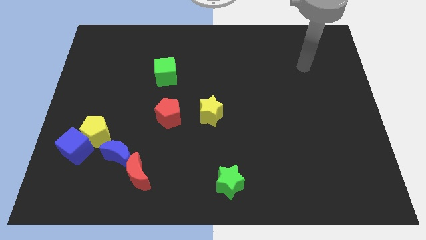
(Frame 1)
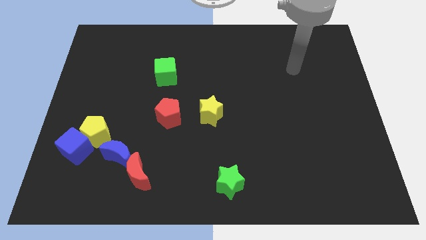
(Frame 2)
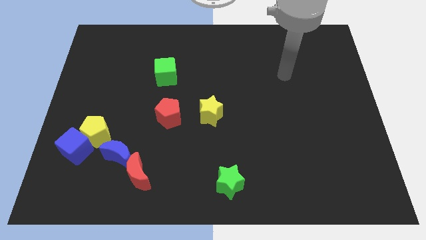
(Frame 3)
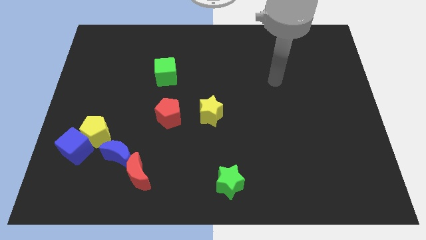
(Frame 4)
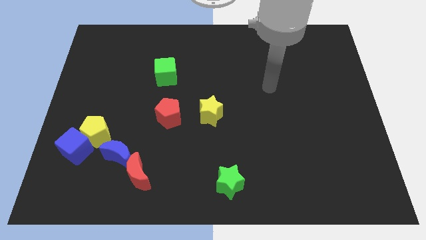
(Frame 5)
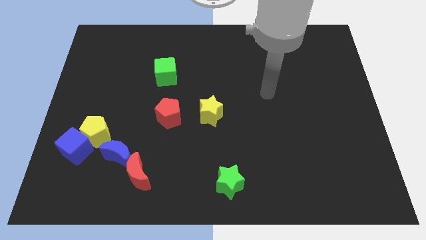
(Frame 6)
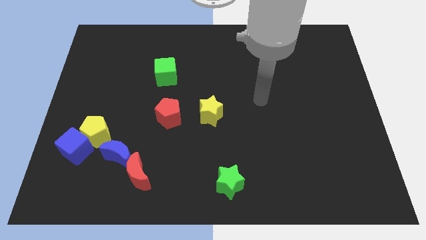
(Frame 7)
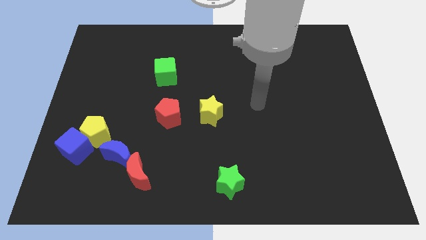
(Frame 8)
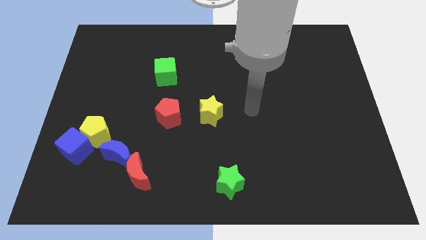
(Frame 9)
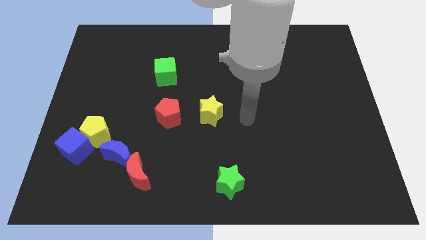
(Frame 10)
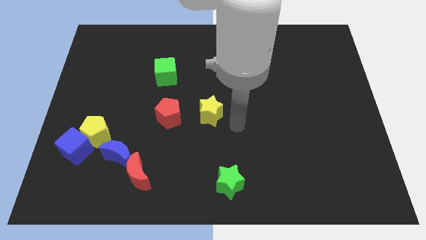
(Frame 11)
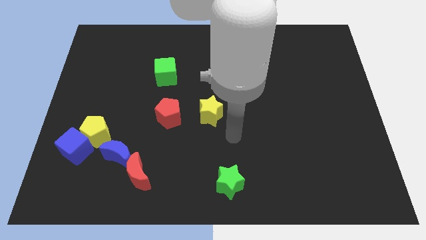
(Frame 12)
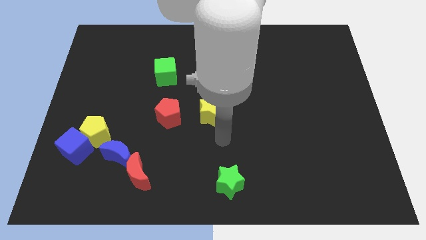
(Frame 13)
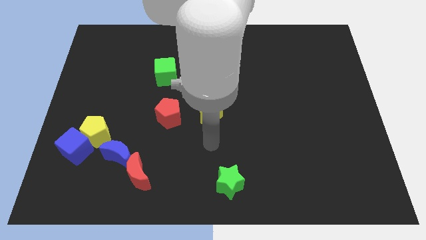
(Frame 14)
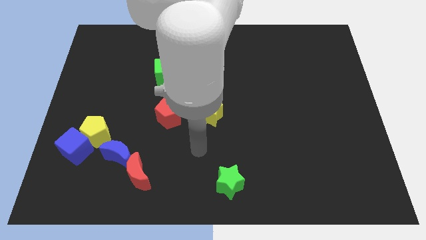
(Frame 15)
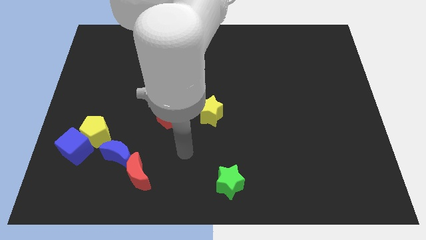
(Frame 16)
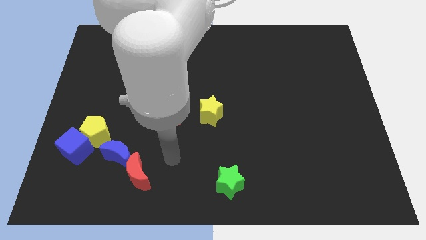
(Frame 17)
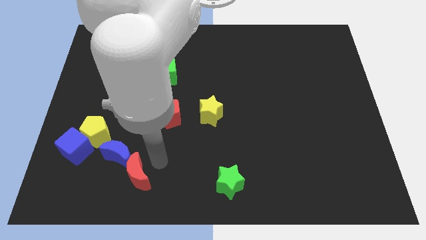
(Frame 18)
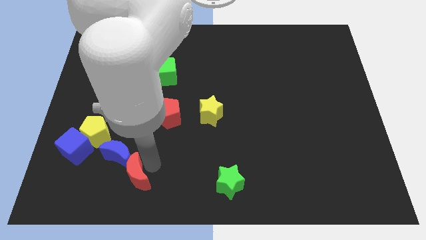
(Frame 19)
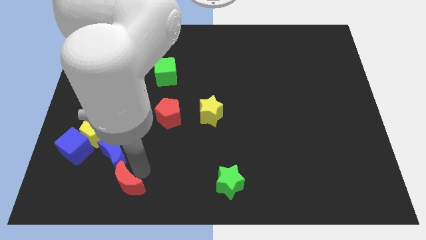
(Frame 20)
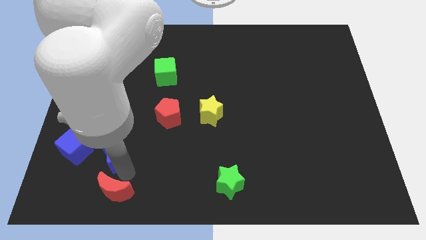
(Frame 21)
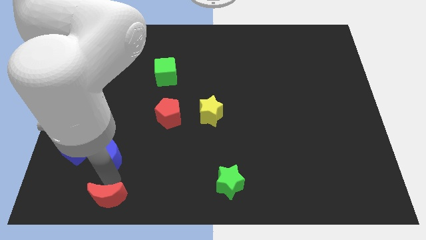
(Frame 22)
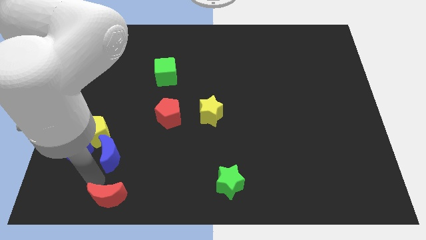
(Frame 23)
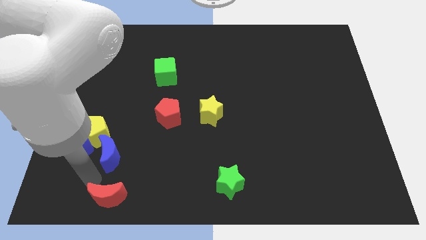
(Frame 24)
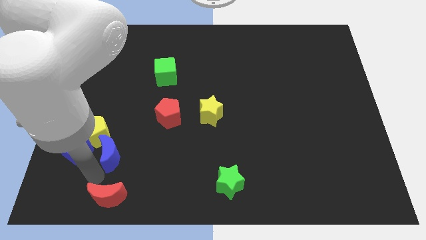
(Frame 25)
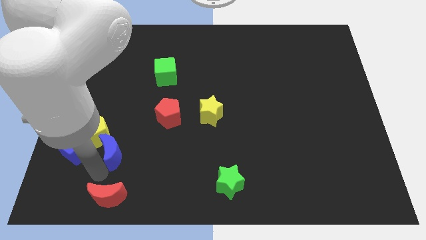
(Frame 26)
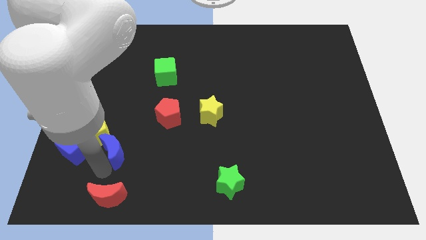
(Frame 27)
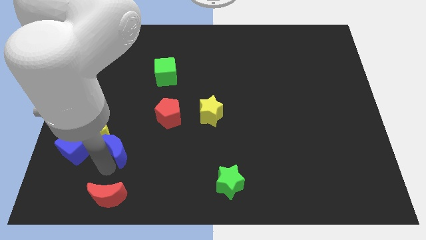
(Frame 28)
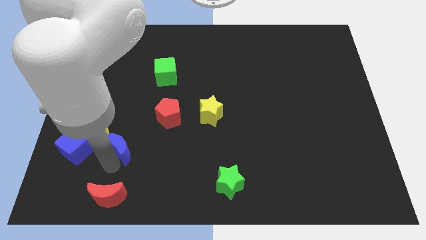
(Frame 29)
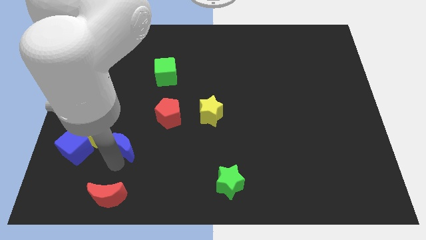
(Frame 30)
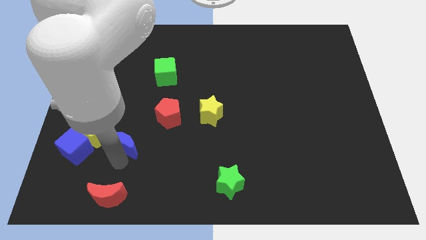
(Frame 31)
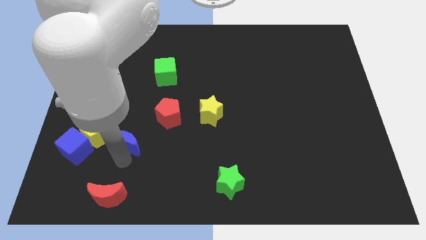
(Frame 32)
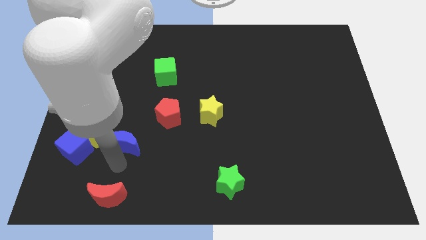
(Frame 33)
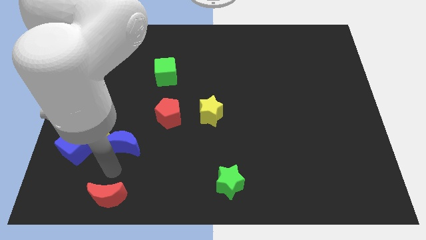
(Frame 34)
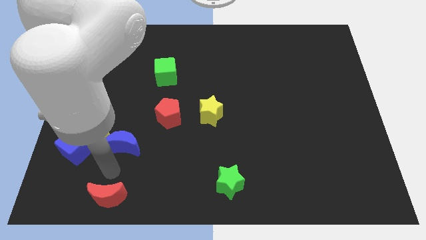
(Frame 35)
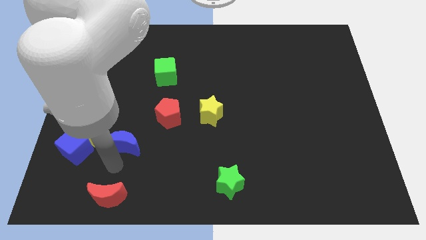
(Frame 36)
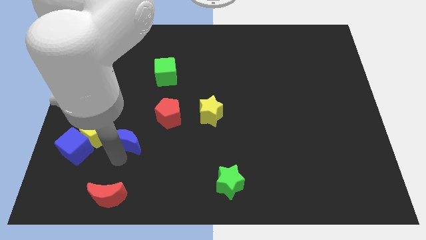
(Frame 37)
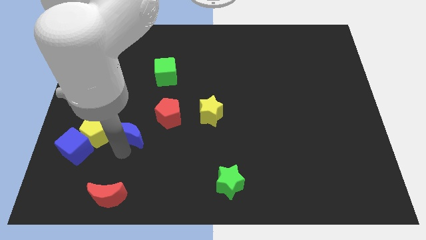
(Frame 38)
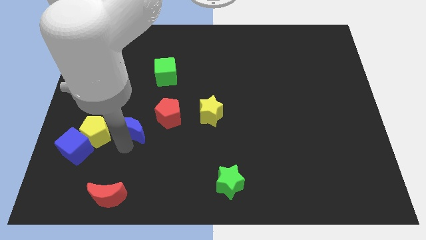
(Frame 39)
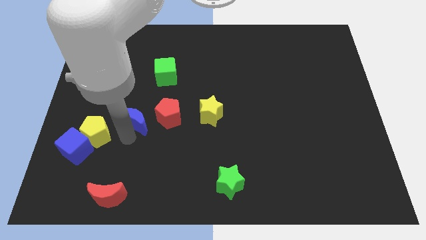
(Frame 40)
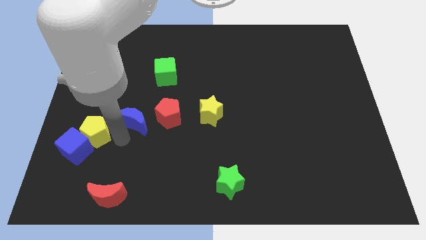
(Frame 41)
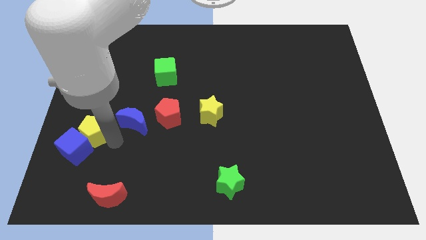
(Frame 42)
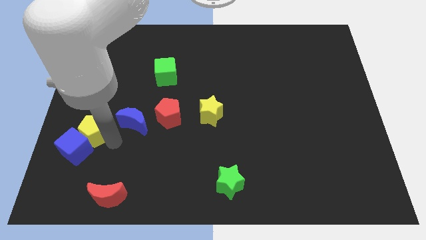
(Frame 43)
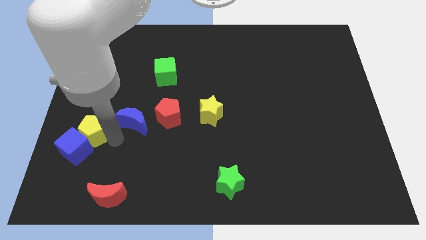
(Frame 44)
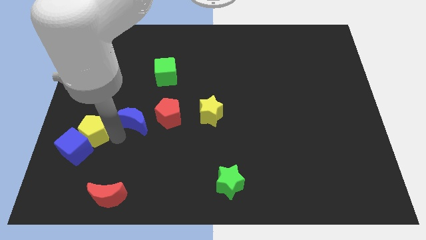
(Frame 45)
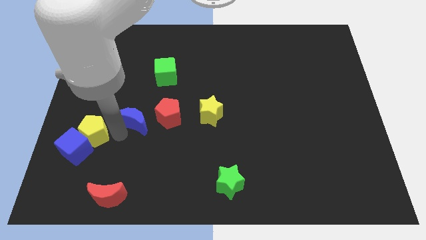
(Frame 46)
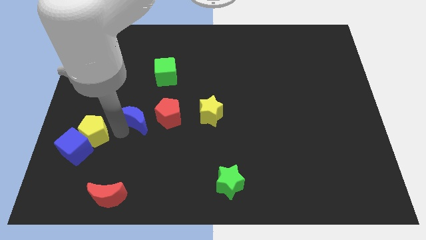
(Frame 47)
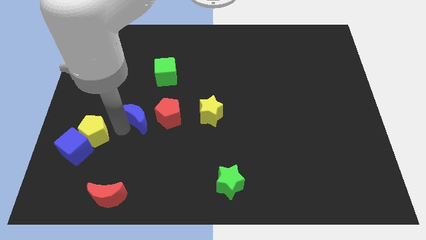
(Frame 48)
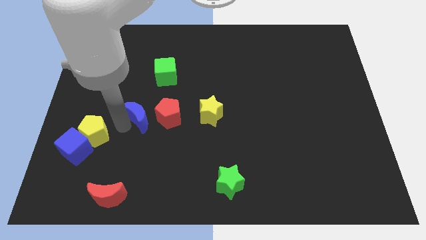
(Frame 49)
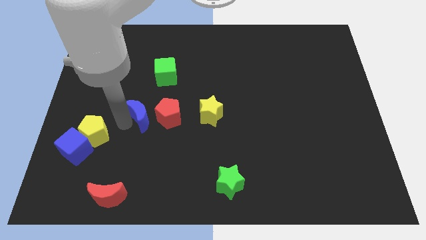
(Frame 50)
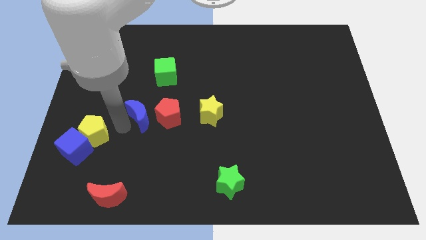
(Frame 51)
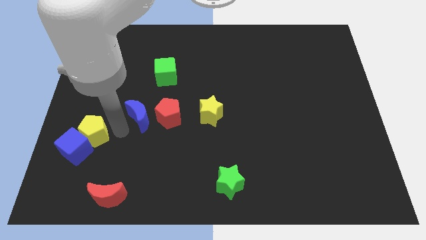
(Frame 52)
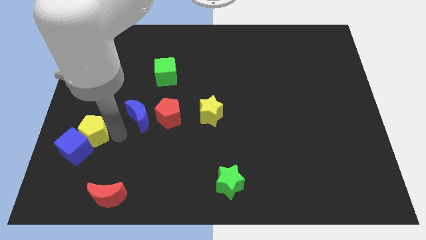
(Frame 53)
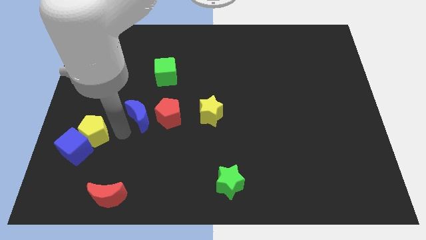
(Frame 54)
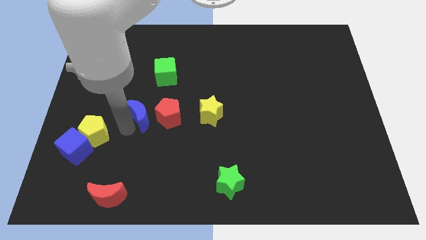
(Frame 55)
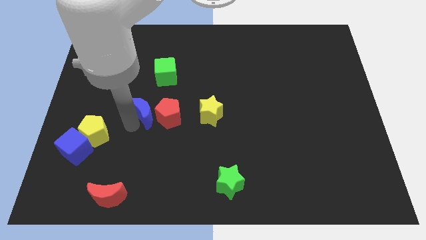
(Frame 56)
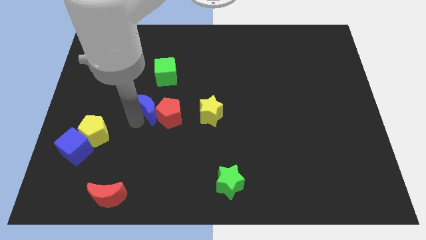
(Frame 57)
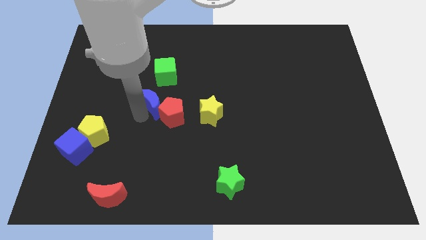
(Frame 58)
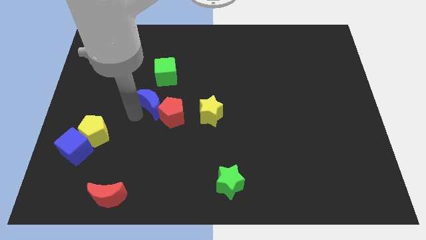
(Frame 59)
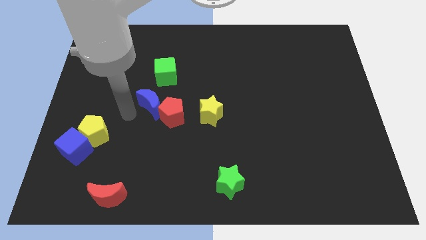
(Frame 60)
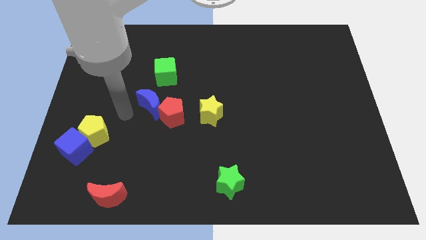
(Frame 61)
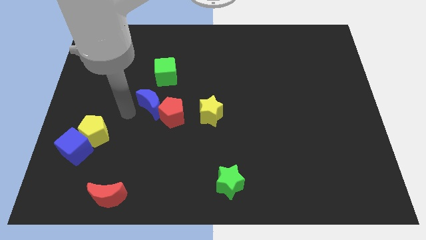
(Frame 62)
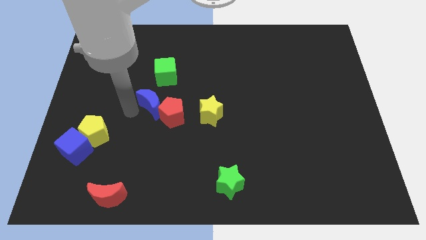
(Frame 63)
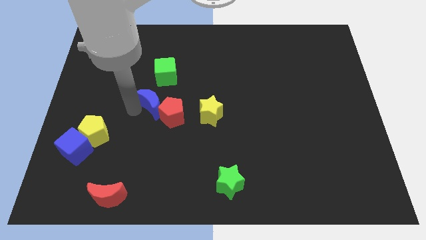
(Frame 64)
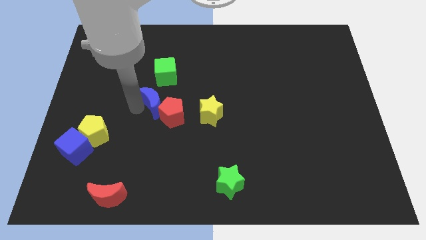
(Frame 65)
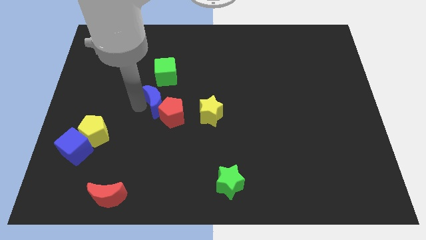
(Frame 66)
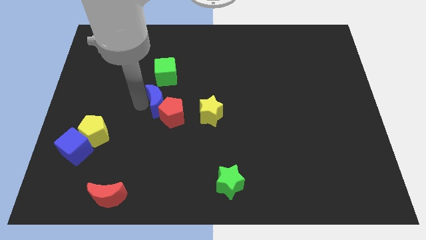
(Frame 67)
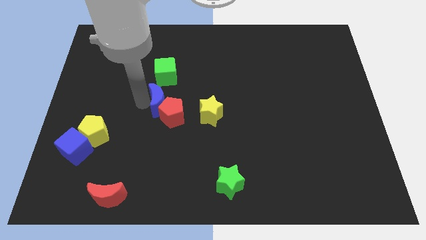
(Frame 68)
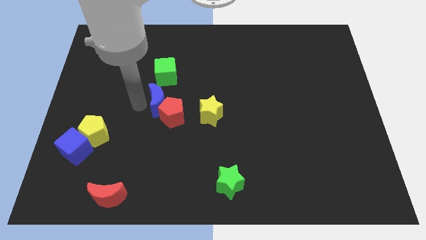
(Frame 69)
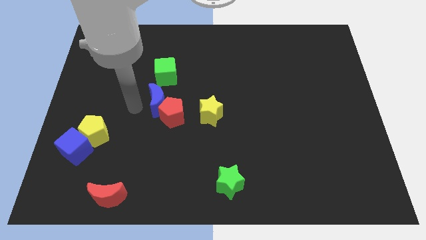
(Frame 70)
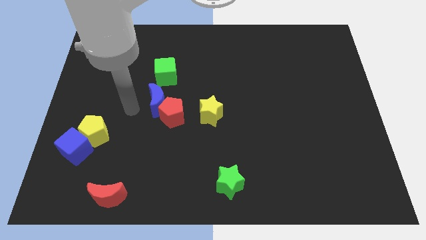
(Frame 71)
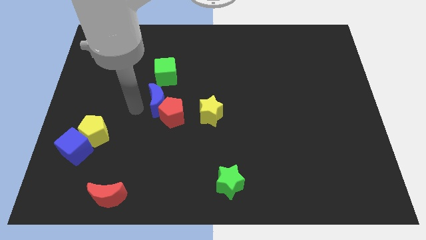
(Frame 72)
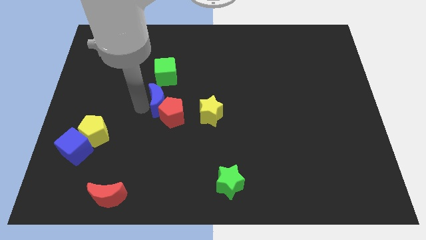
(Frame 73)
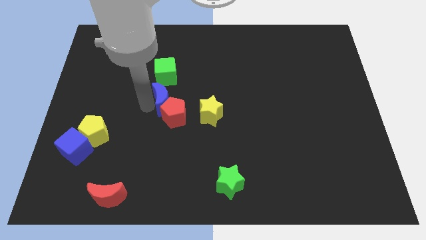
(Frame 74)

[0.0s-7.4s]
push the blue moon to the middle of the board

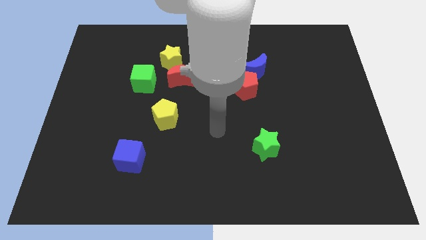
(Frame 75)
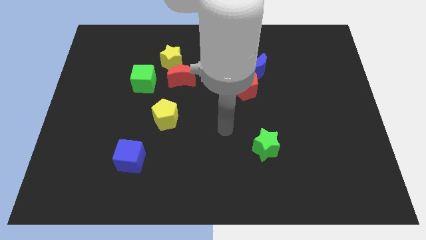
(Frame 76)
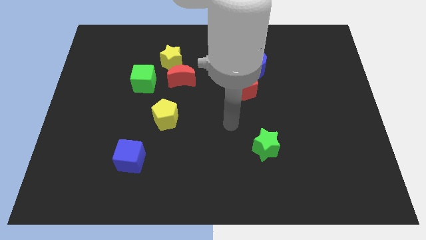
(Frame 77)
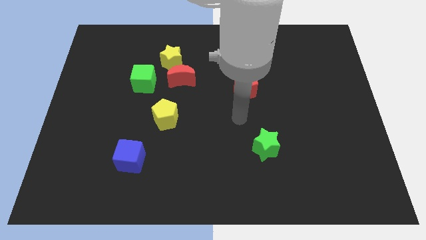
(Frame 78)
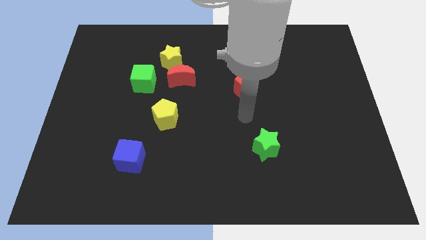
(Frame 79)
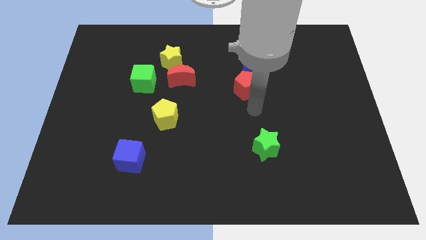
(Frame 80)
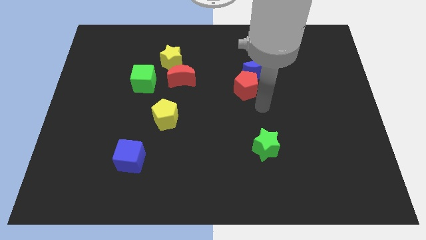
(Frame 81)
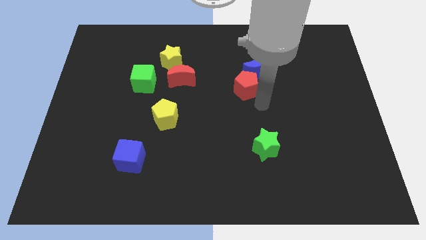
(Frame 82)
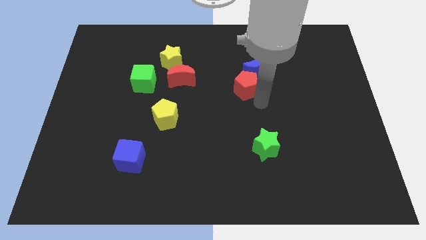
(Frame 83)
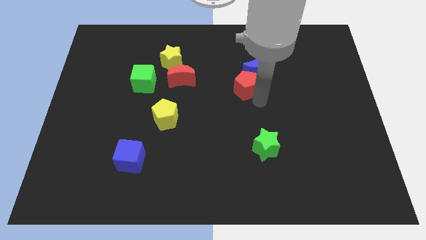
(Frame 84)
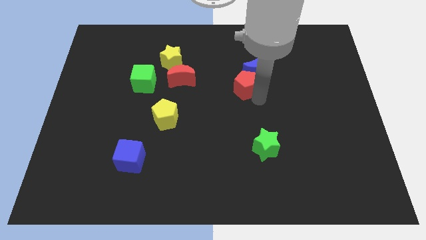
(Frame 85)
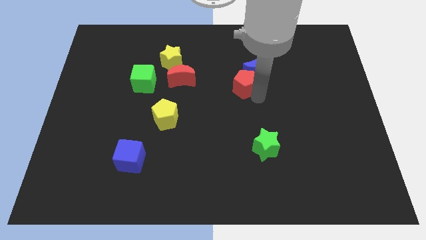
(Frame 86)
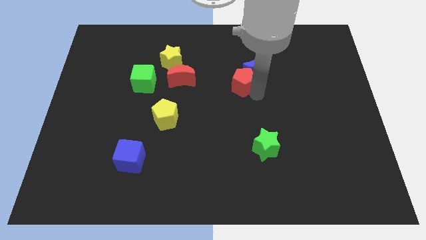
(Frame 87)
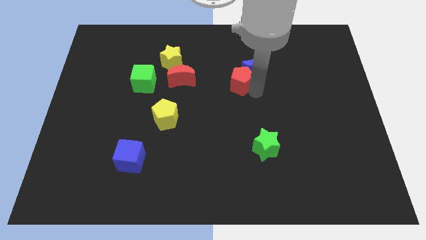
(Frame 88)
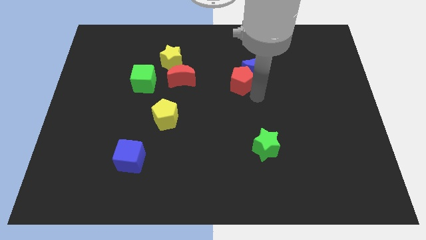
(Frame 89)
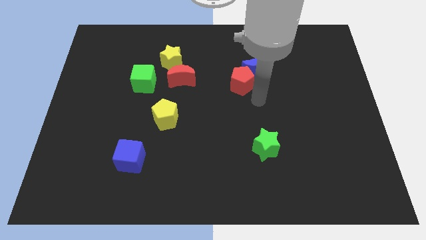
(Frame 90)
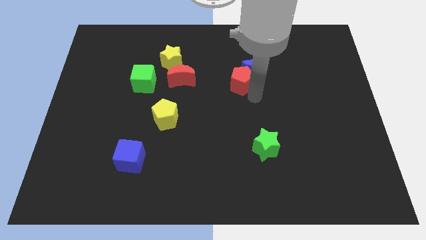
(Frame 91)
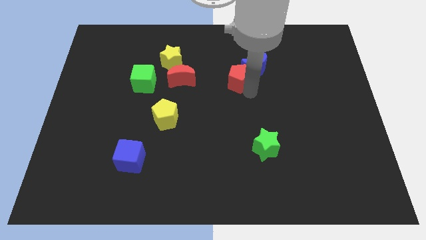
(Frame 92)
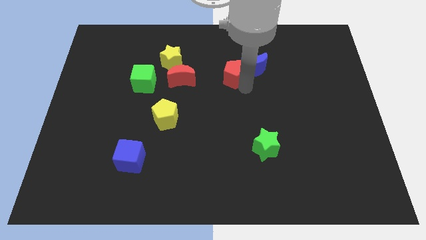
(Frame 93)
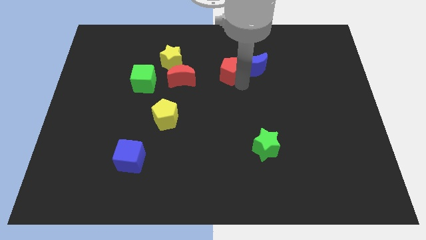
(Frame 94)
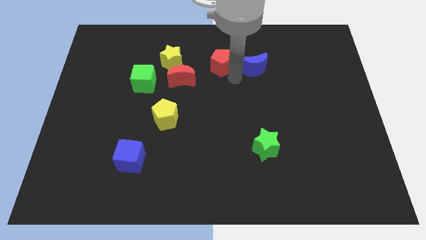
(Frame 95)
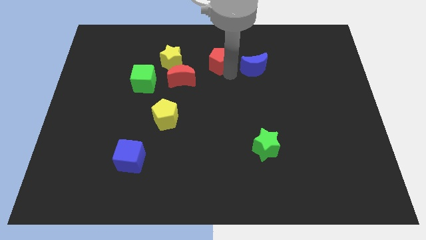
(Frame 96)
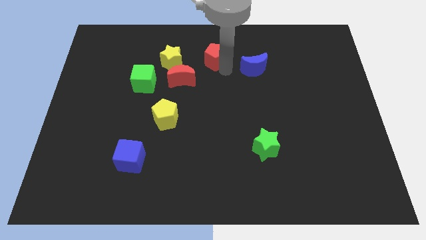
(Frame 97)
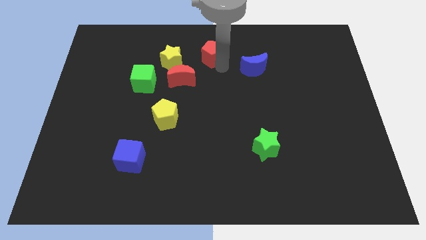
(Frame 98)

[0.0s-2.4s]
move the red pentagon to the towards your base
